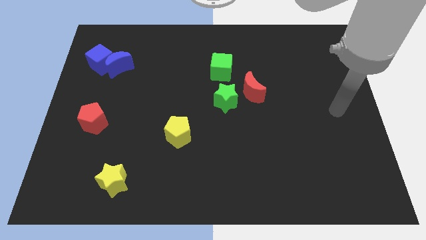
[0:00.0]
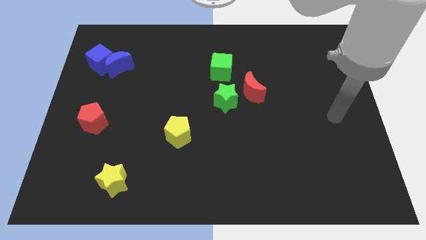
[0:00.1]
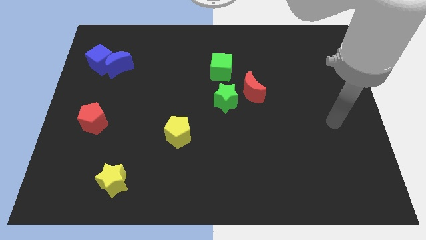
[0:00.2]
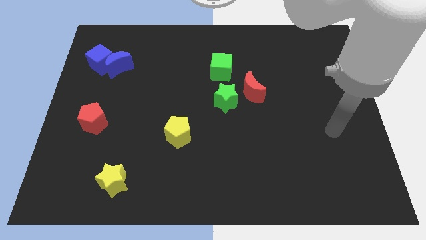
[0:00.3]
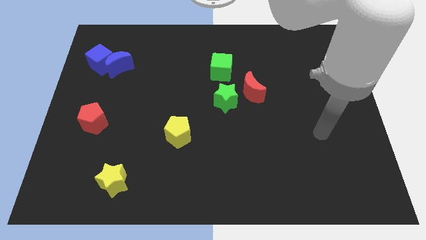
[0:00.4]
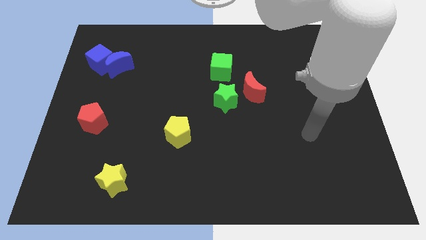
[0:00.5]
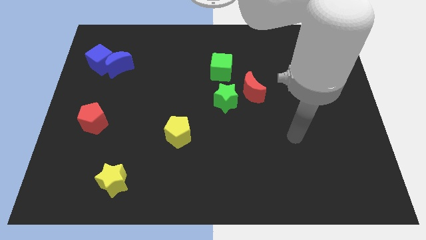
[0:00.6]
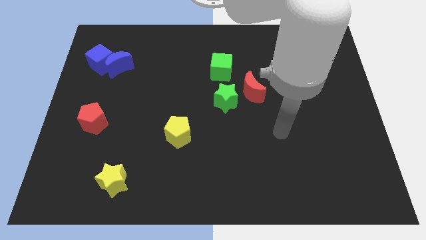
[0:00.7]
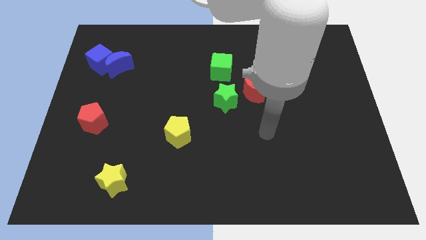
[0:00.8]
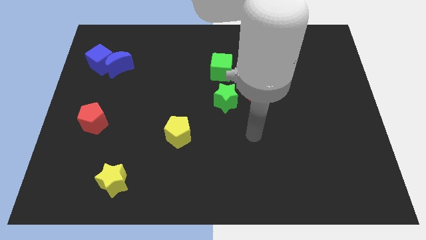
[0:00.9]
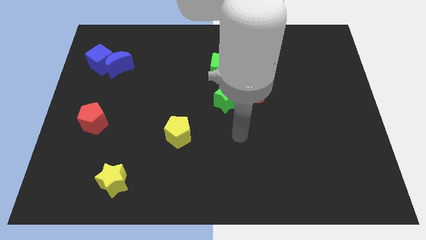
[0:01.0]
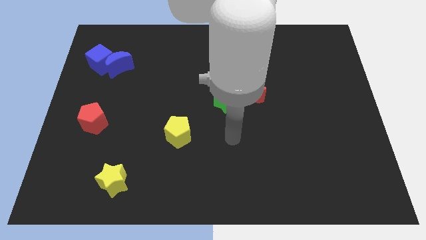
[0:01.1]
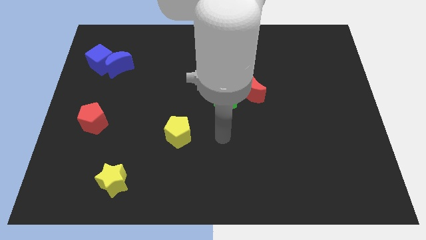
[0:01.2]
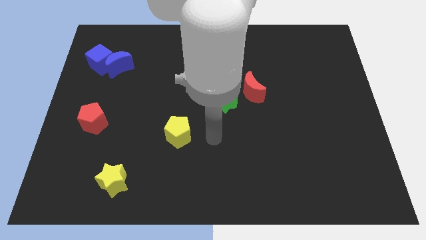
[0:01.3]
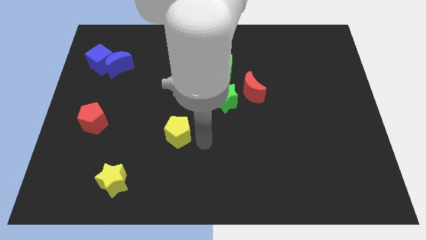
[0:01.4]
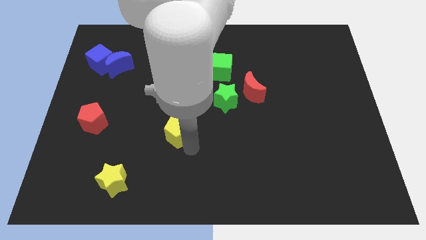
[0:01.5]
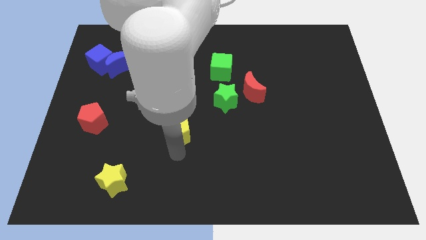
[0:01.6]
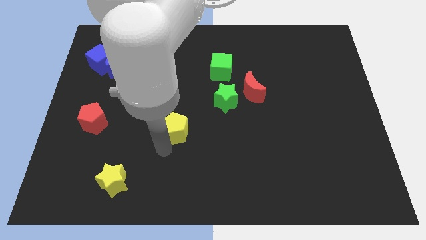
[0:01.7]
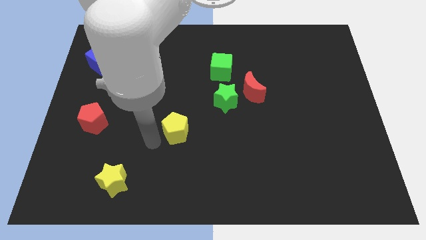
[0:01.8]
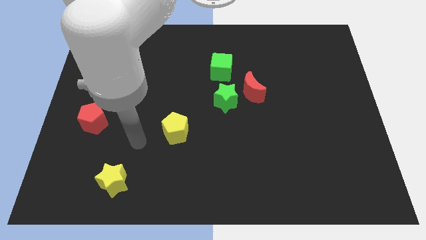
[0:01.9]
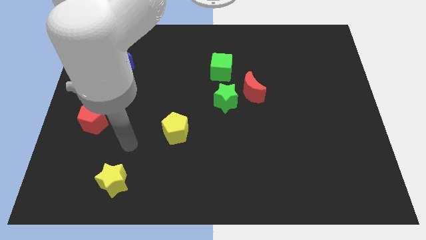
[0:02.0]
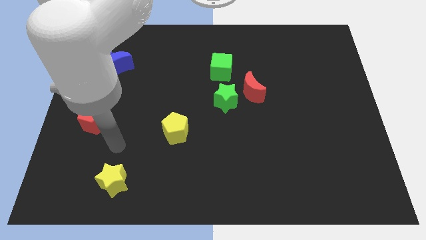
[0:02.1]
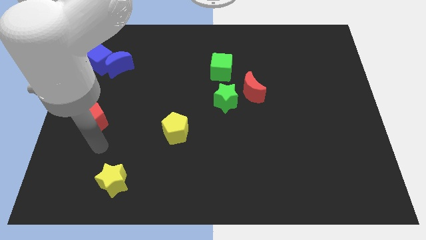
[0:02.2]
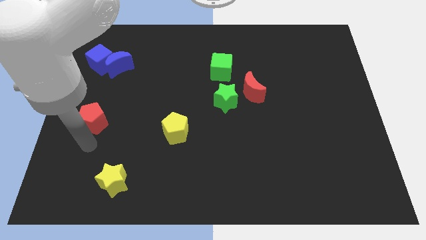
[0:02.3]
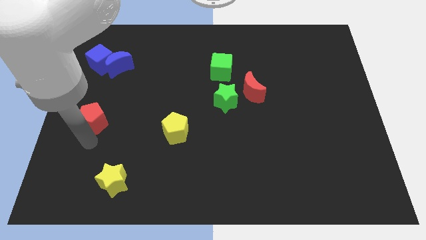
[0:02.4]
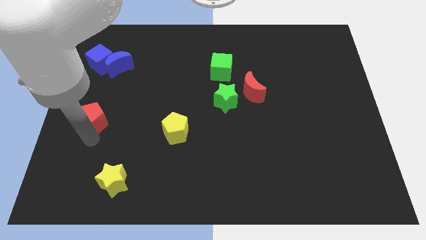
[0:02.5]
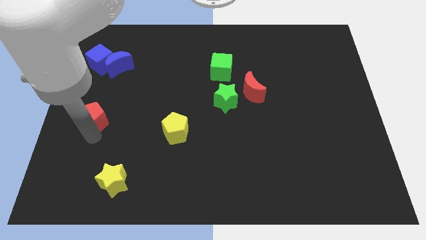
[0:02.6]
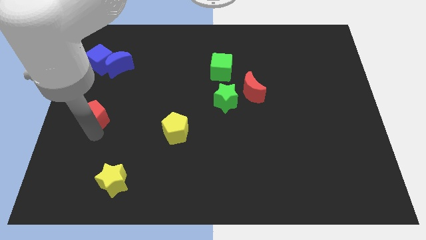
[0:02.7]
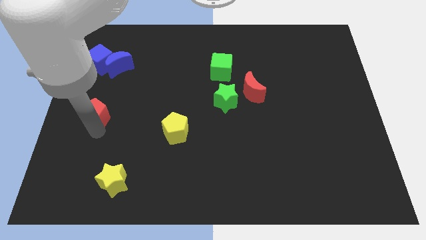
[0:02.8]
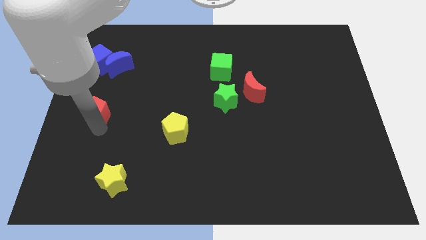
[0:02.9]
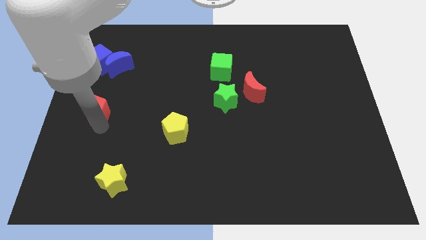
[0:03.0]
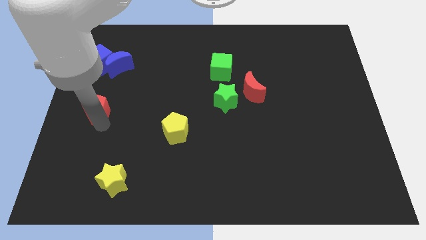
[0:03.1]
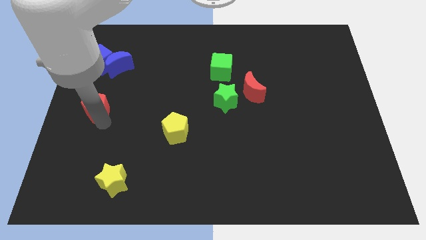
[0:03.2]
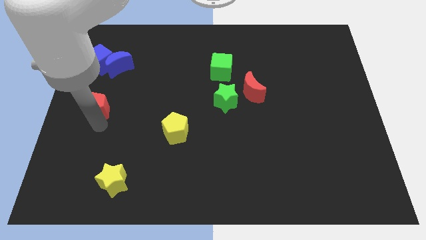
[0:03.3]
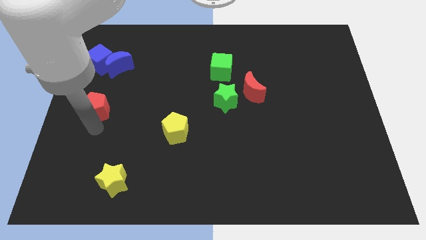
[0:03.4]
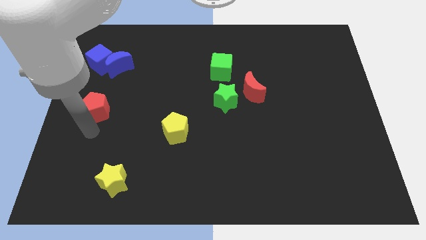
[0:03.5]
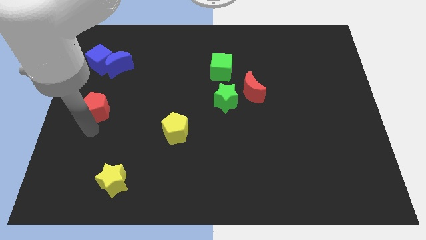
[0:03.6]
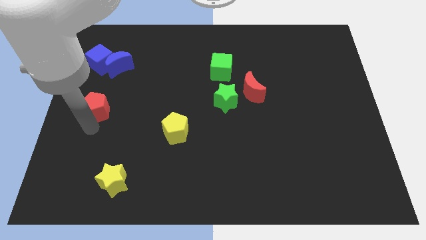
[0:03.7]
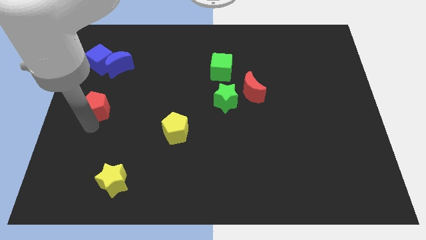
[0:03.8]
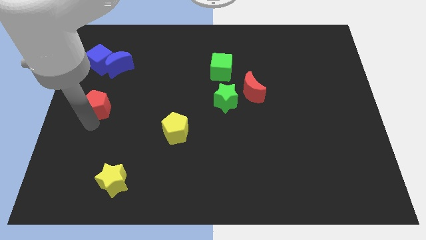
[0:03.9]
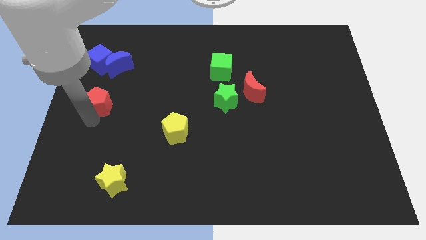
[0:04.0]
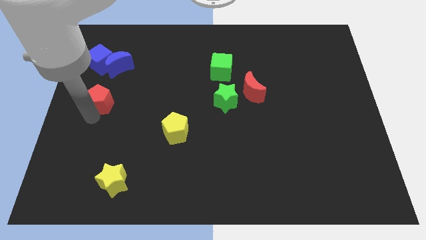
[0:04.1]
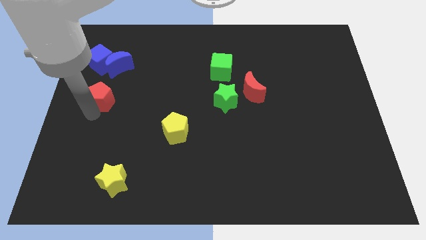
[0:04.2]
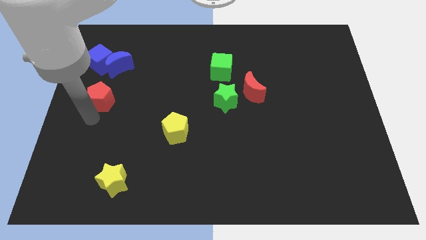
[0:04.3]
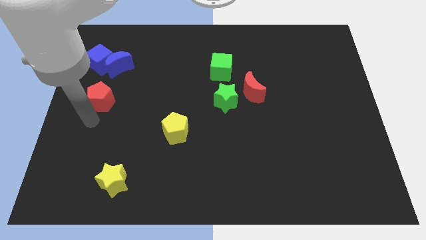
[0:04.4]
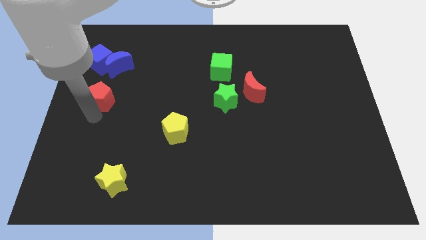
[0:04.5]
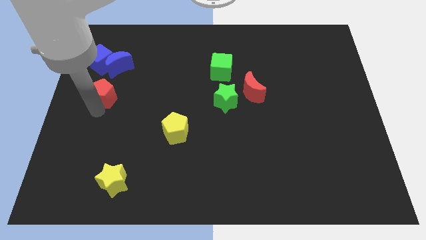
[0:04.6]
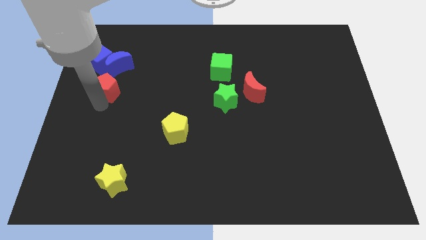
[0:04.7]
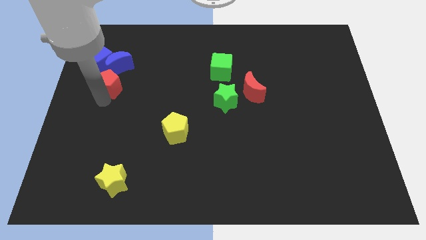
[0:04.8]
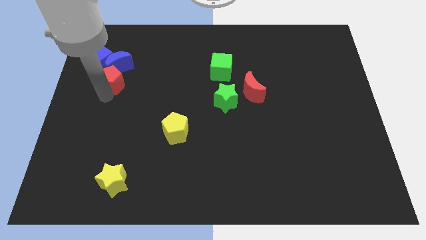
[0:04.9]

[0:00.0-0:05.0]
move the red pentagon to the blue moon

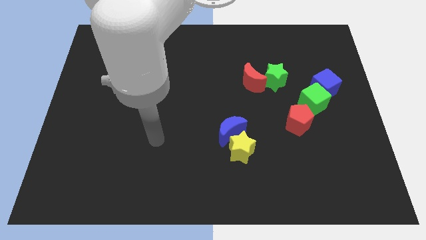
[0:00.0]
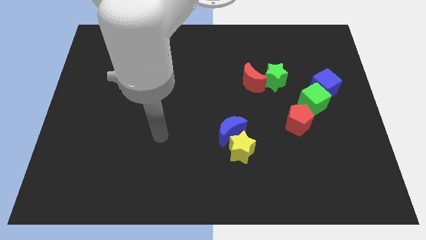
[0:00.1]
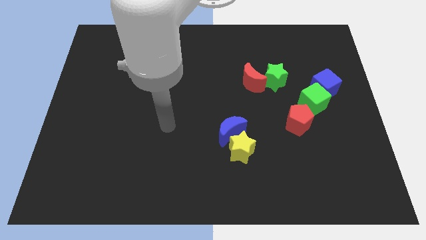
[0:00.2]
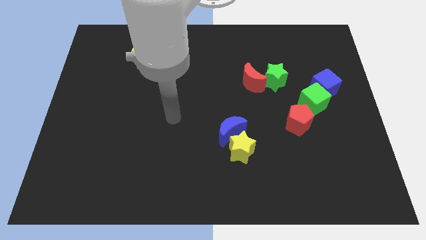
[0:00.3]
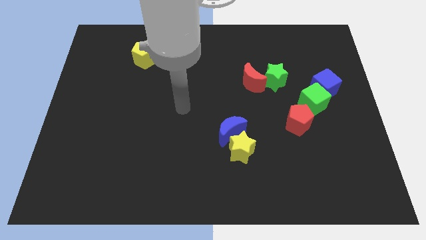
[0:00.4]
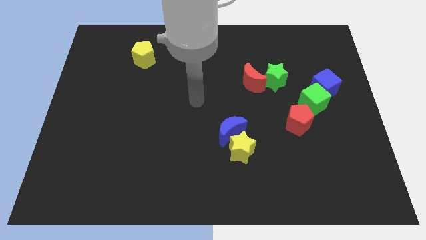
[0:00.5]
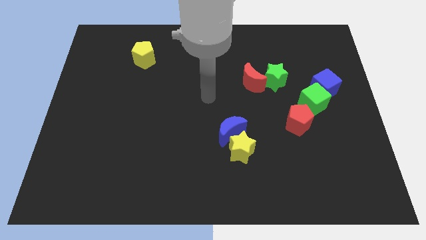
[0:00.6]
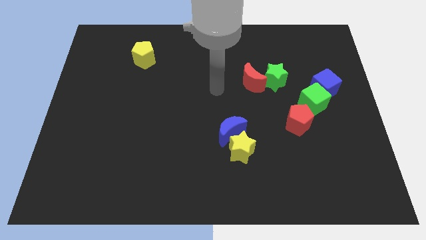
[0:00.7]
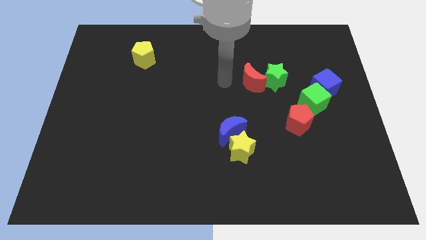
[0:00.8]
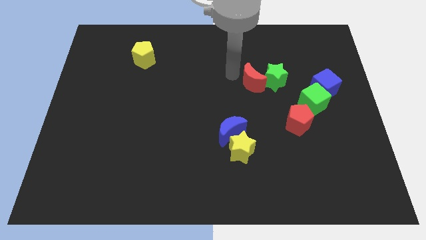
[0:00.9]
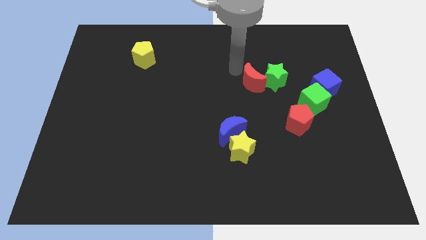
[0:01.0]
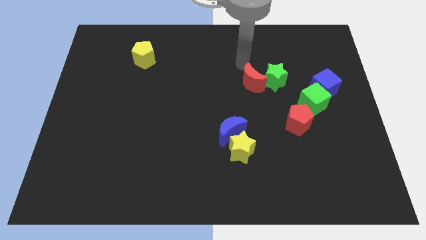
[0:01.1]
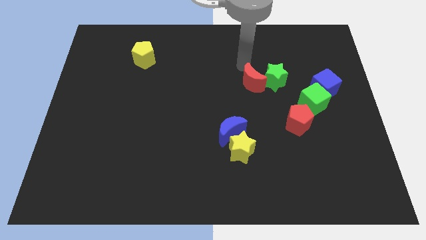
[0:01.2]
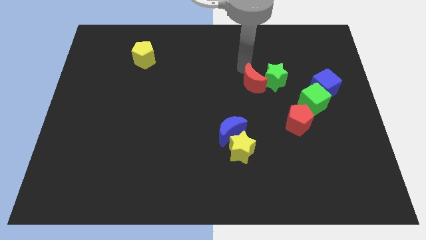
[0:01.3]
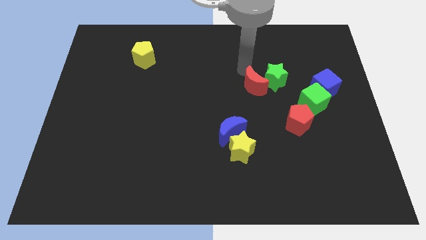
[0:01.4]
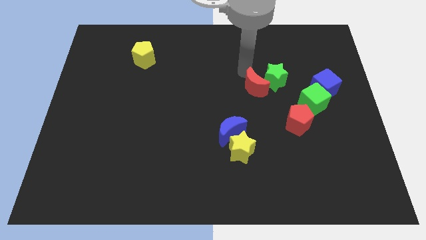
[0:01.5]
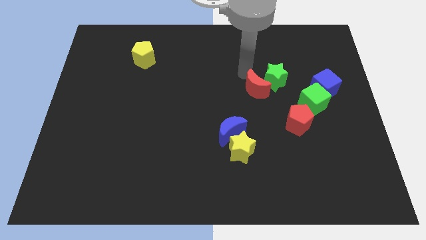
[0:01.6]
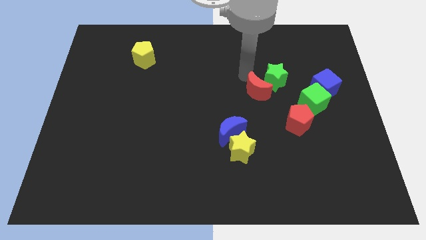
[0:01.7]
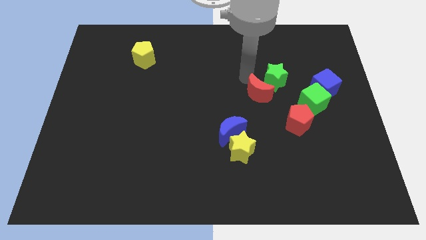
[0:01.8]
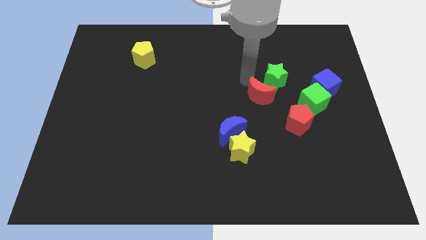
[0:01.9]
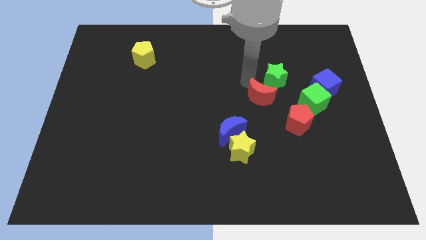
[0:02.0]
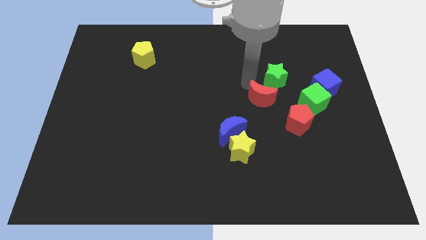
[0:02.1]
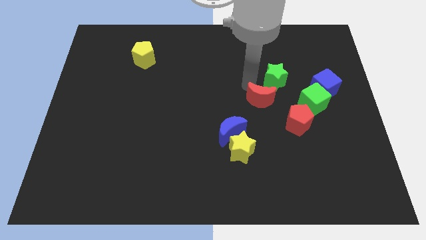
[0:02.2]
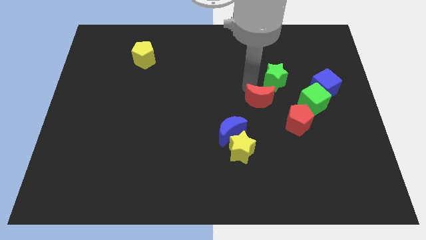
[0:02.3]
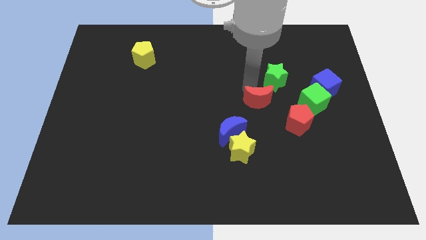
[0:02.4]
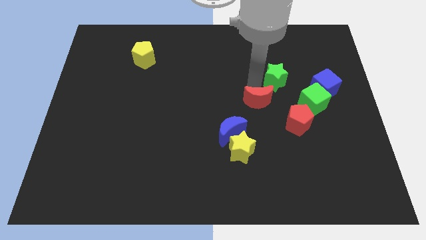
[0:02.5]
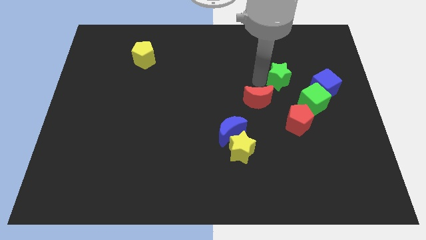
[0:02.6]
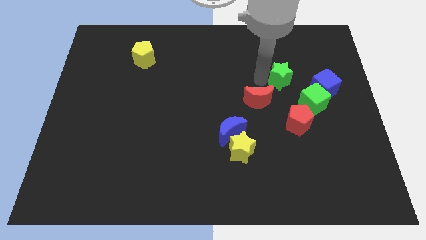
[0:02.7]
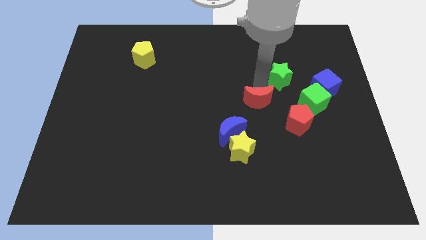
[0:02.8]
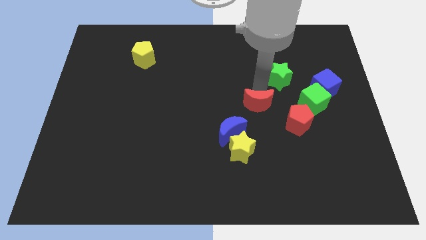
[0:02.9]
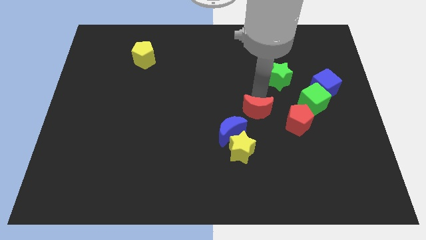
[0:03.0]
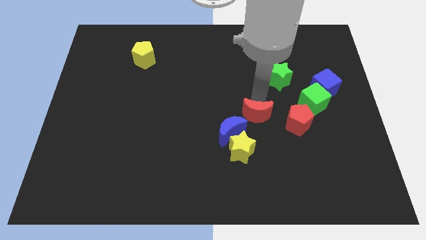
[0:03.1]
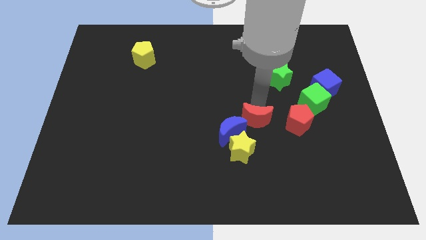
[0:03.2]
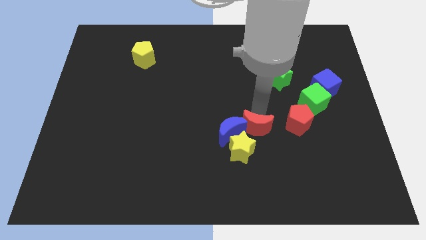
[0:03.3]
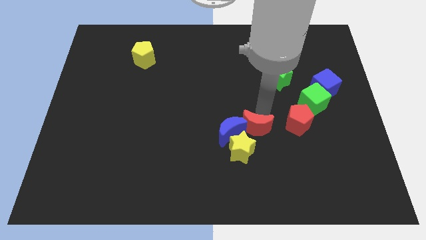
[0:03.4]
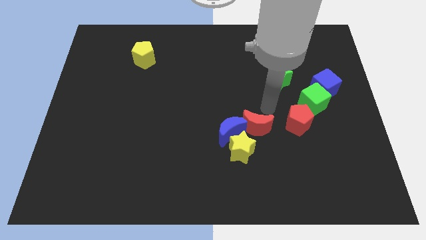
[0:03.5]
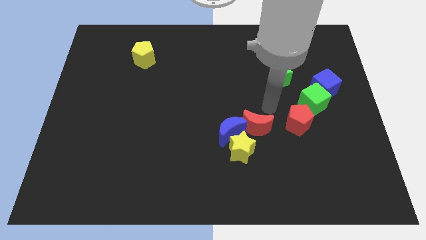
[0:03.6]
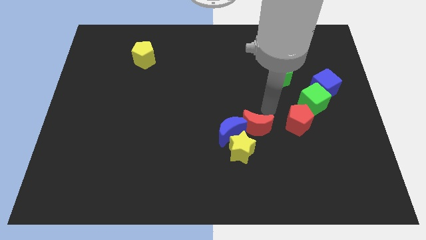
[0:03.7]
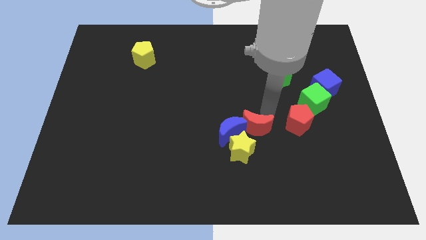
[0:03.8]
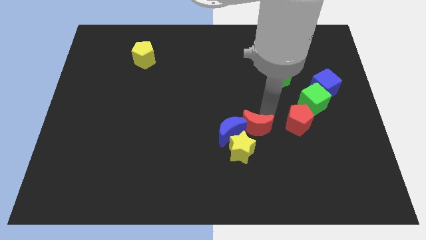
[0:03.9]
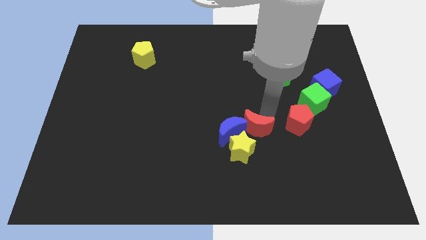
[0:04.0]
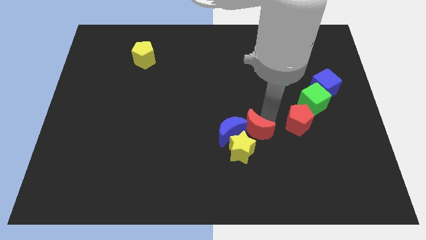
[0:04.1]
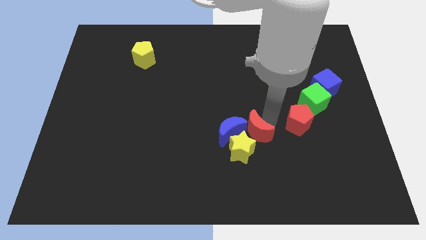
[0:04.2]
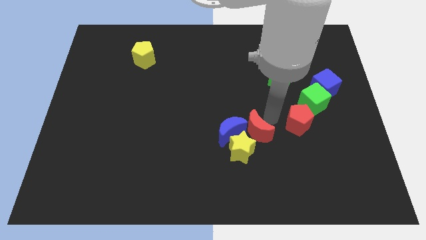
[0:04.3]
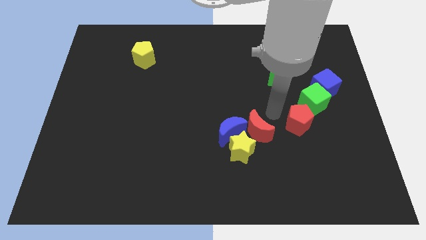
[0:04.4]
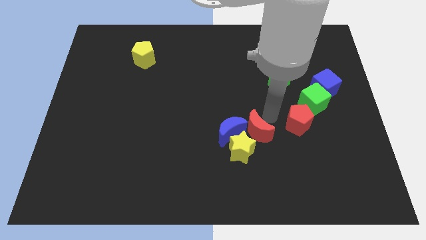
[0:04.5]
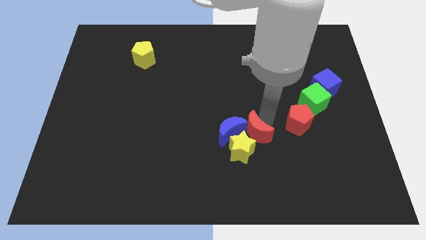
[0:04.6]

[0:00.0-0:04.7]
push the red moon next to the yellow star
